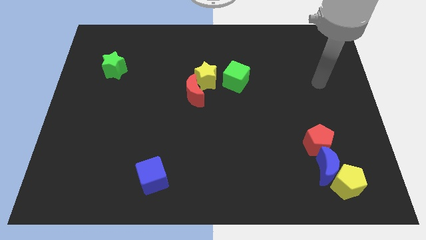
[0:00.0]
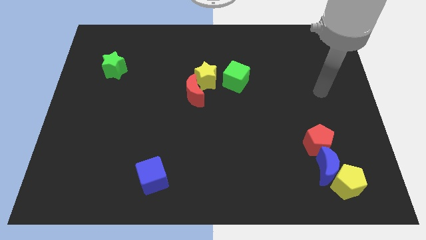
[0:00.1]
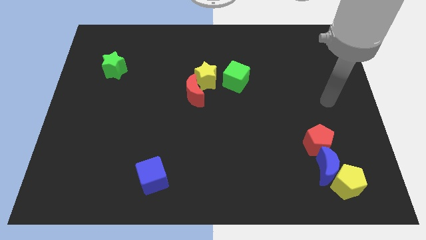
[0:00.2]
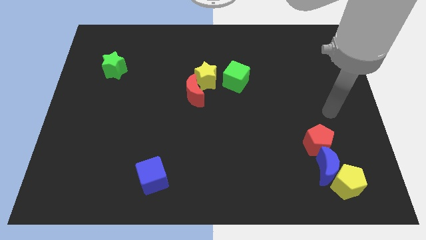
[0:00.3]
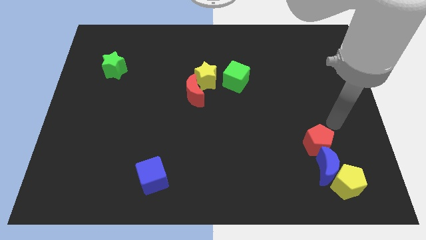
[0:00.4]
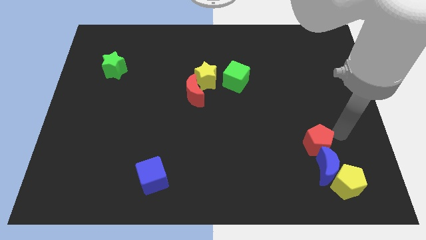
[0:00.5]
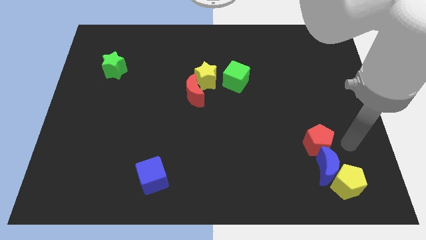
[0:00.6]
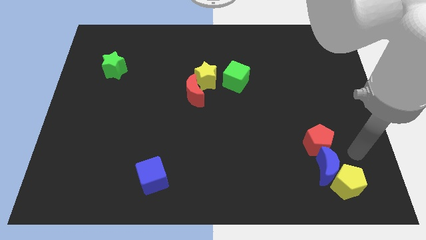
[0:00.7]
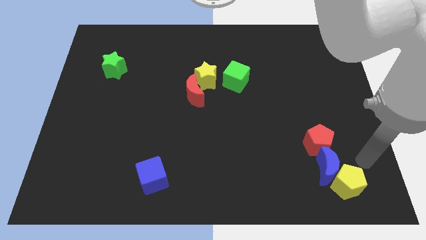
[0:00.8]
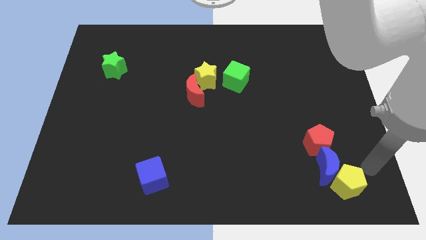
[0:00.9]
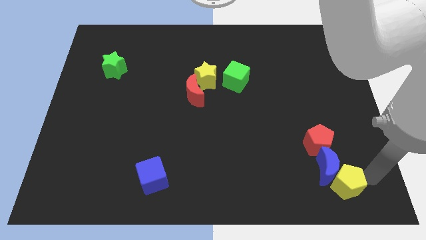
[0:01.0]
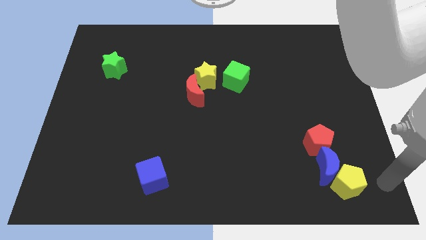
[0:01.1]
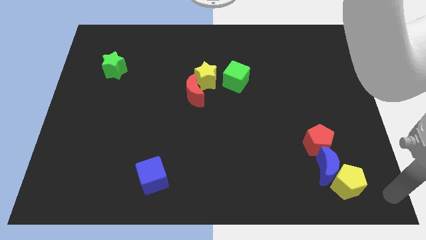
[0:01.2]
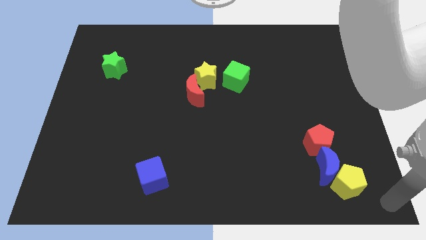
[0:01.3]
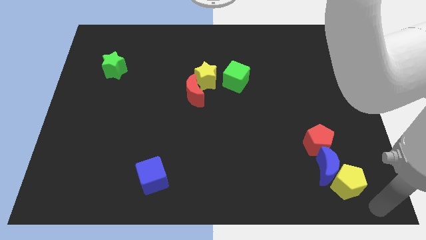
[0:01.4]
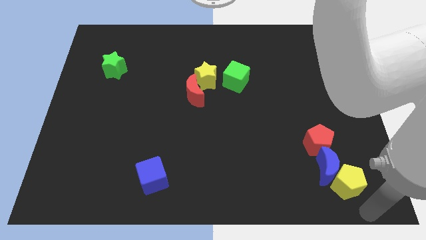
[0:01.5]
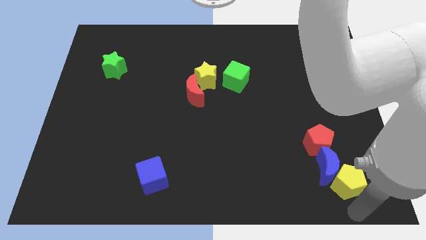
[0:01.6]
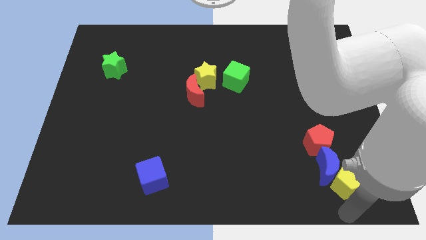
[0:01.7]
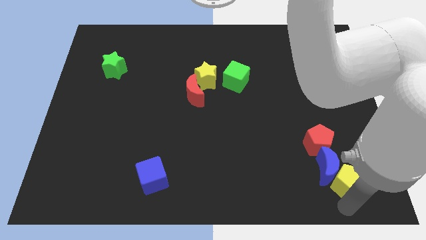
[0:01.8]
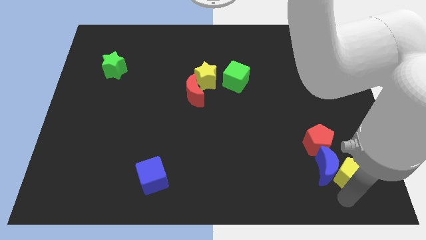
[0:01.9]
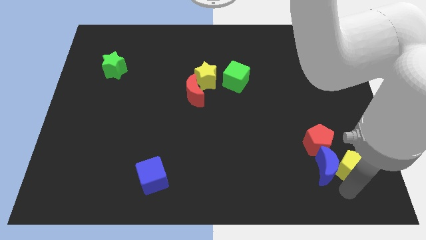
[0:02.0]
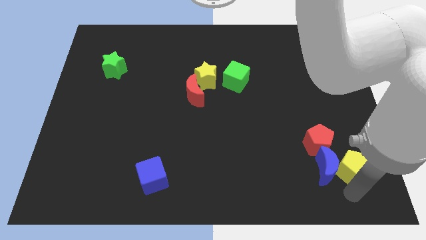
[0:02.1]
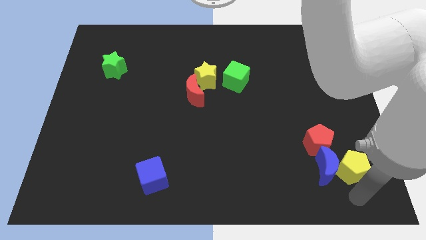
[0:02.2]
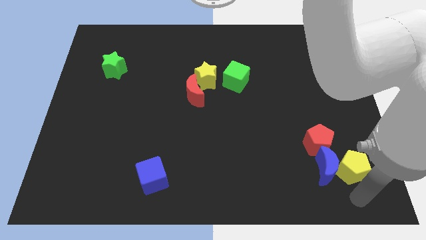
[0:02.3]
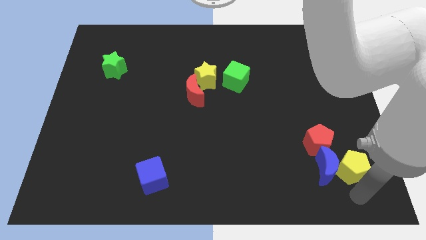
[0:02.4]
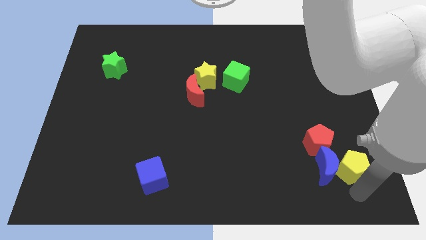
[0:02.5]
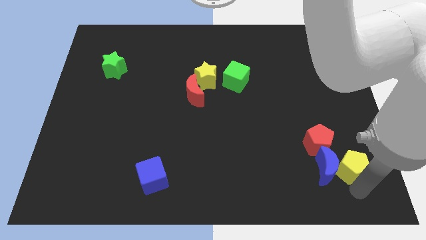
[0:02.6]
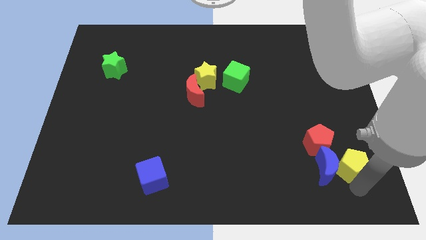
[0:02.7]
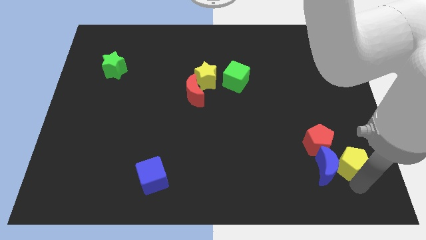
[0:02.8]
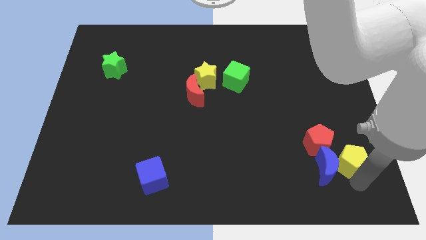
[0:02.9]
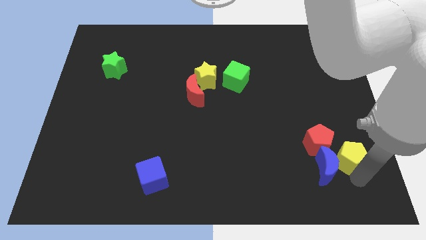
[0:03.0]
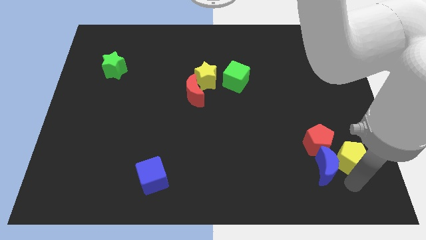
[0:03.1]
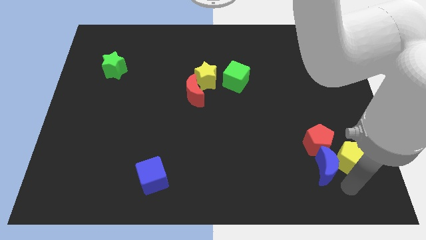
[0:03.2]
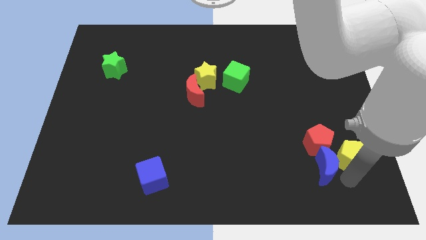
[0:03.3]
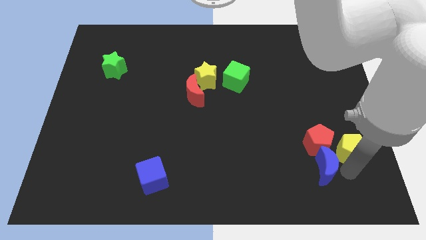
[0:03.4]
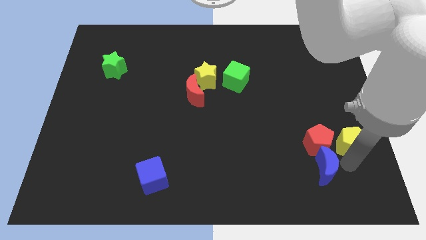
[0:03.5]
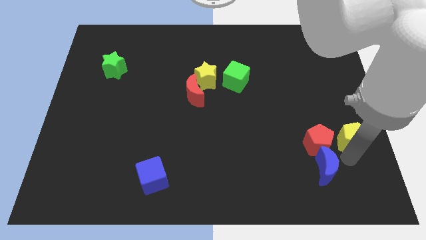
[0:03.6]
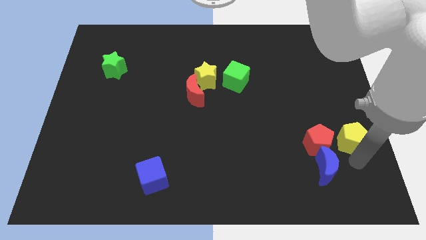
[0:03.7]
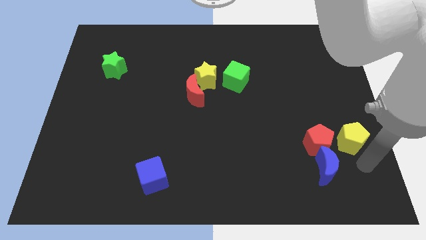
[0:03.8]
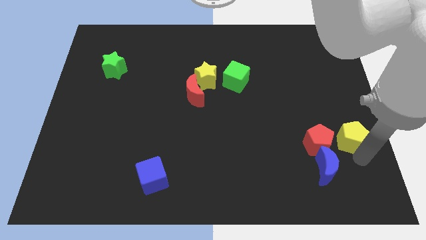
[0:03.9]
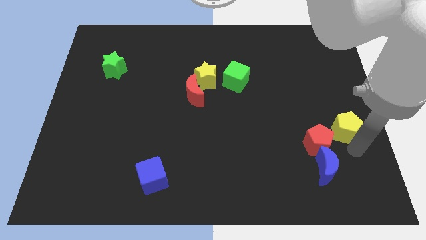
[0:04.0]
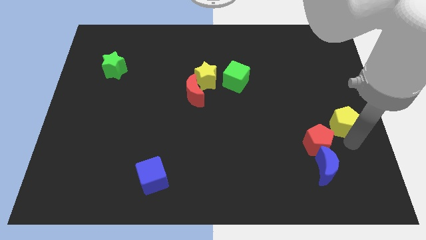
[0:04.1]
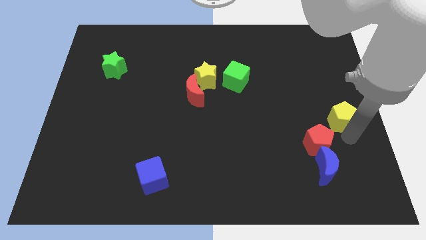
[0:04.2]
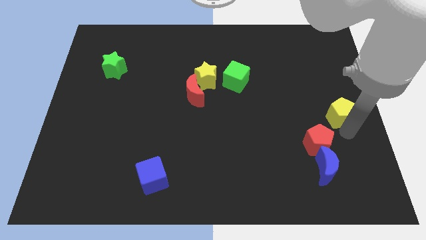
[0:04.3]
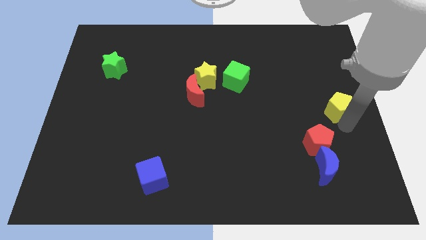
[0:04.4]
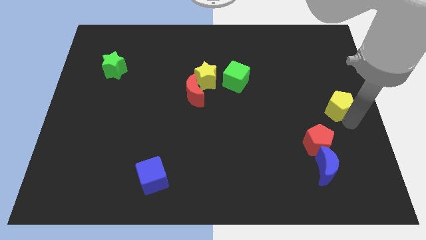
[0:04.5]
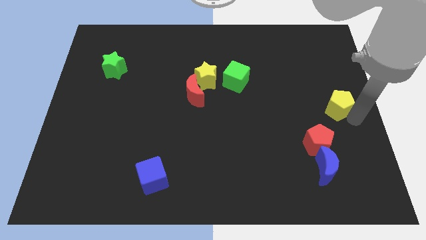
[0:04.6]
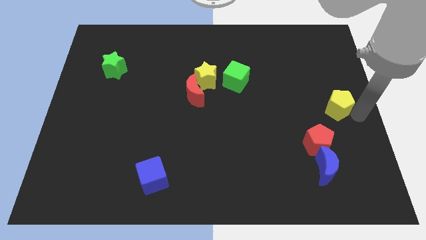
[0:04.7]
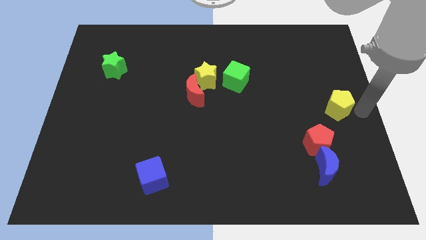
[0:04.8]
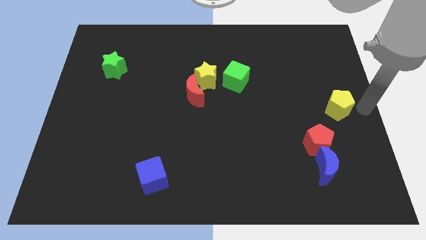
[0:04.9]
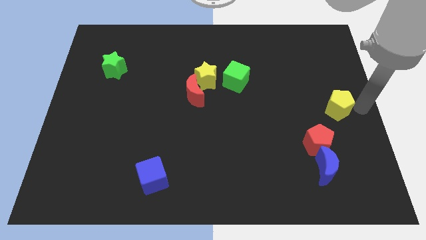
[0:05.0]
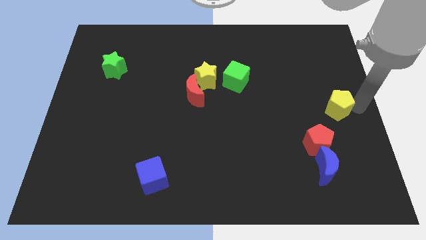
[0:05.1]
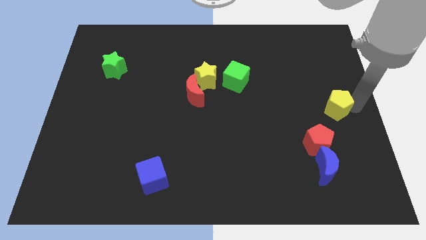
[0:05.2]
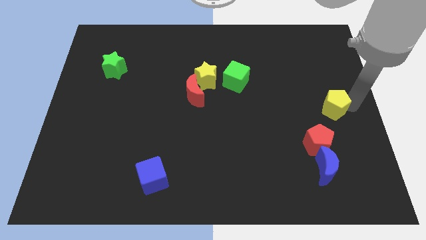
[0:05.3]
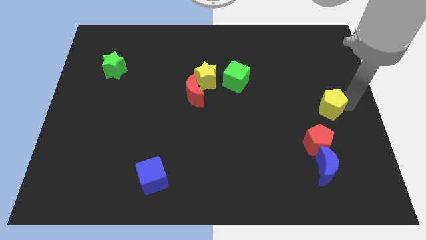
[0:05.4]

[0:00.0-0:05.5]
move the yellow pentagon to the top side of the red pentagon

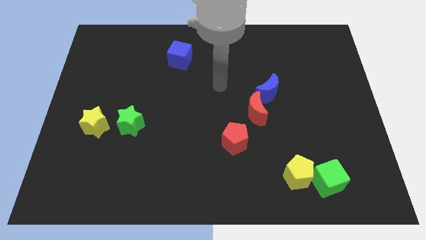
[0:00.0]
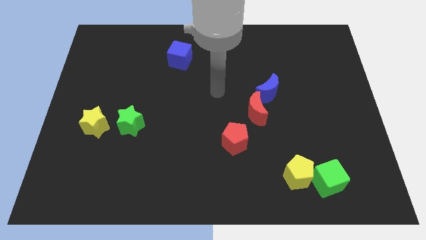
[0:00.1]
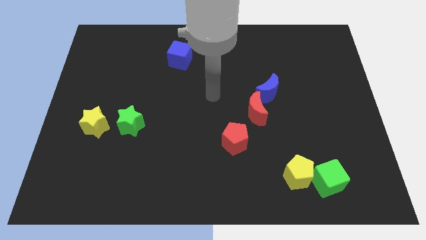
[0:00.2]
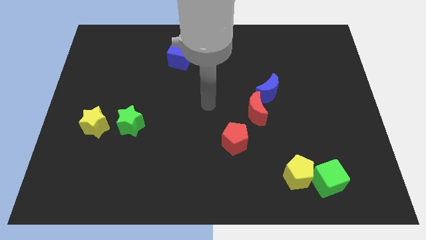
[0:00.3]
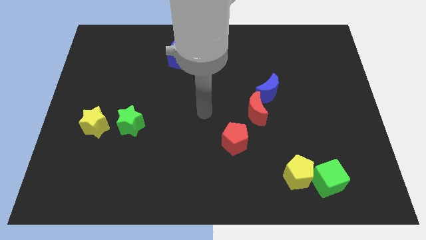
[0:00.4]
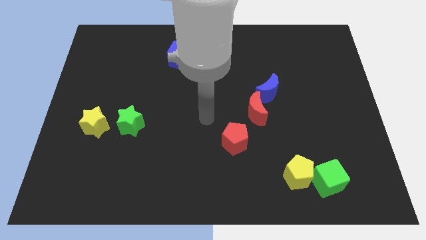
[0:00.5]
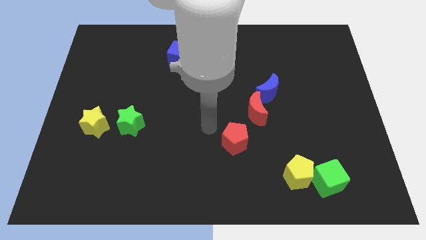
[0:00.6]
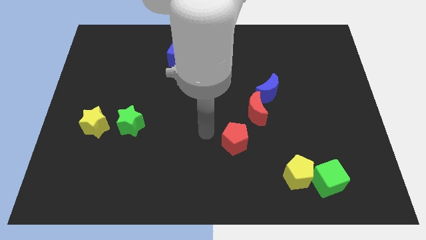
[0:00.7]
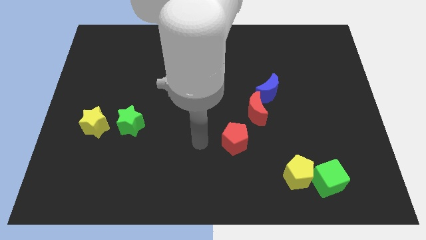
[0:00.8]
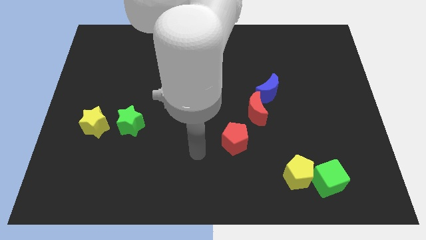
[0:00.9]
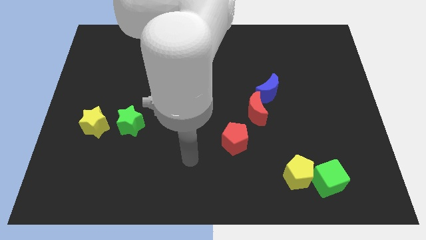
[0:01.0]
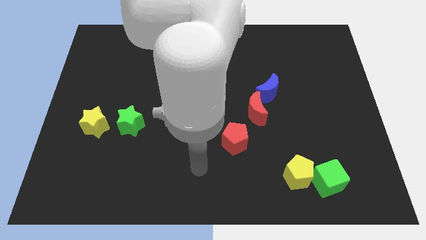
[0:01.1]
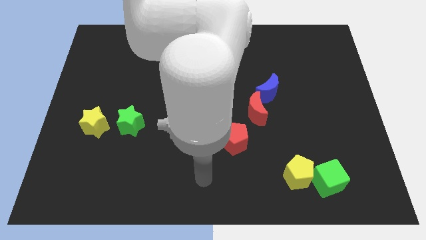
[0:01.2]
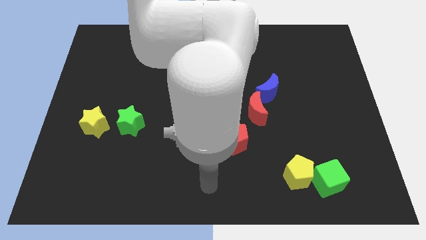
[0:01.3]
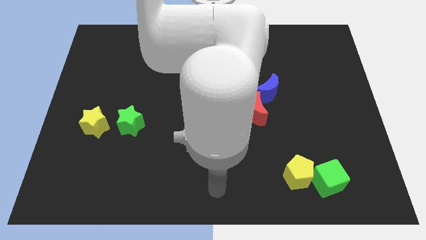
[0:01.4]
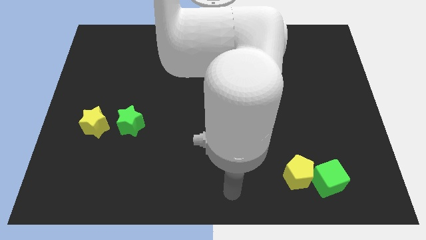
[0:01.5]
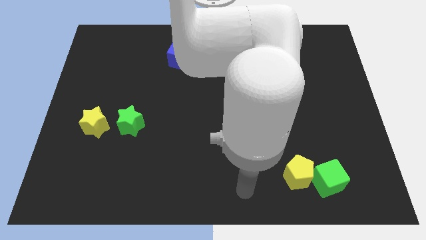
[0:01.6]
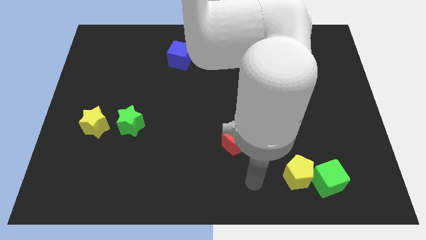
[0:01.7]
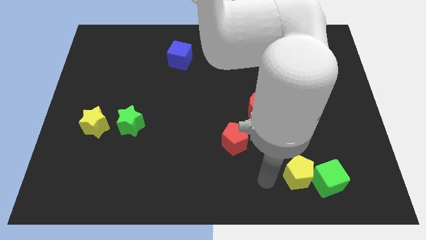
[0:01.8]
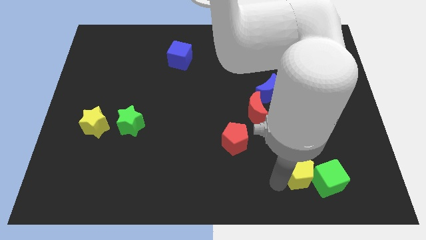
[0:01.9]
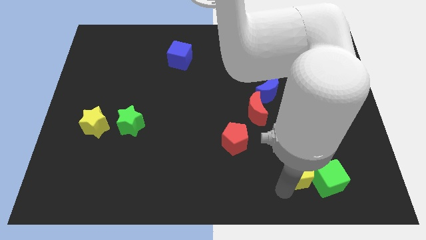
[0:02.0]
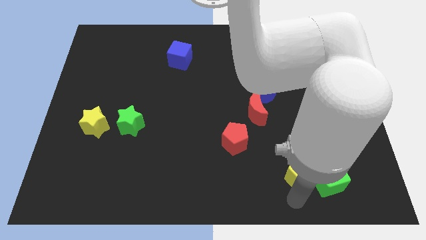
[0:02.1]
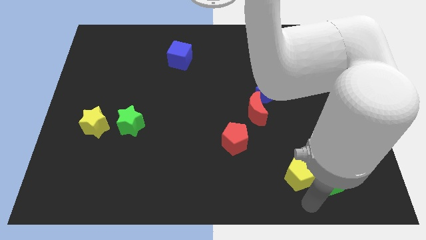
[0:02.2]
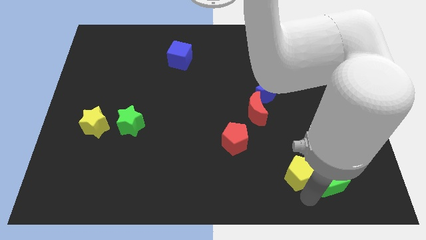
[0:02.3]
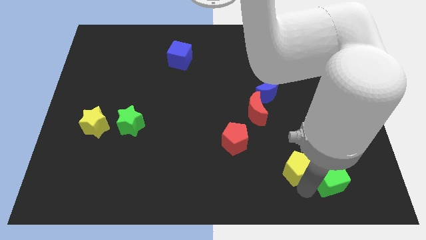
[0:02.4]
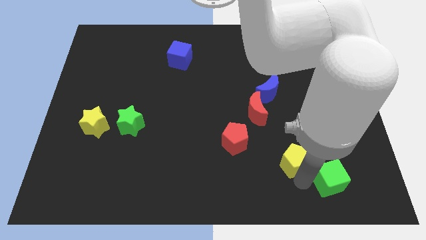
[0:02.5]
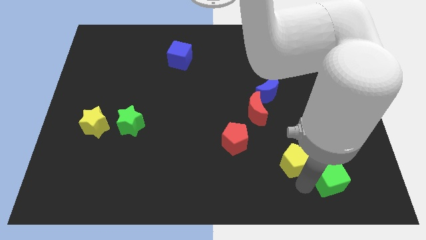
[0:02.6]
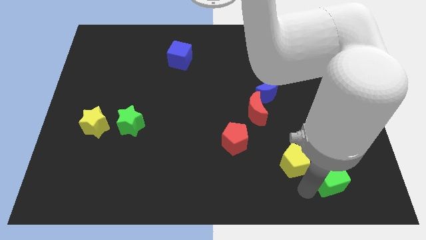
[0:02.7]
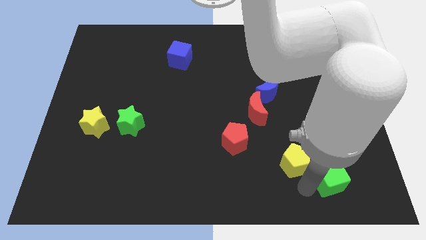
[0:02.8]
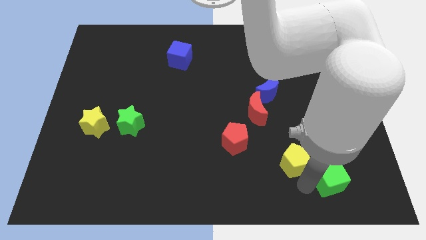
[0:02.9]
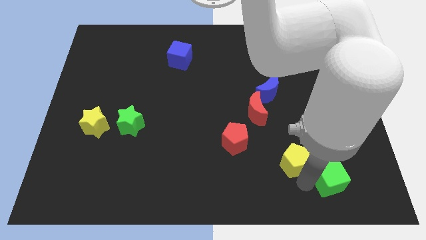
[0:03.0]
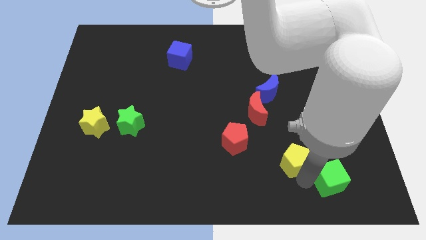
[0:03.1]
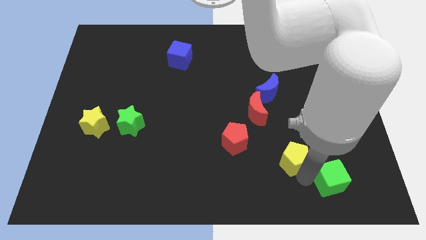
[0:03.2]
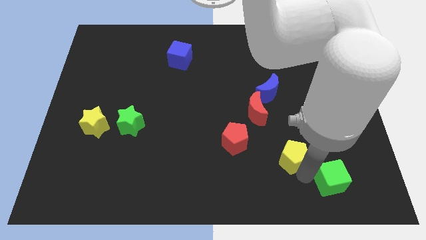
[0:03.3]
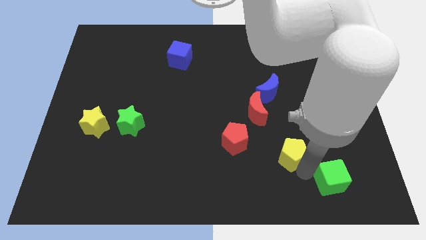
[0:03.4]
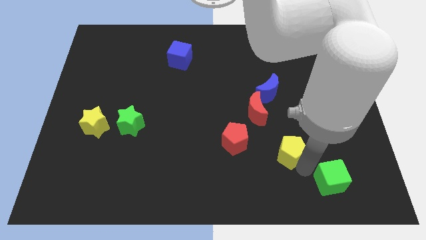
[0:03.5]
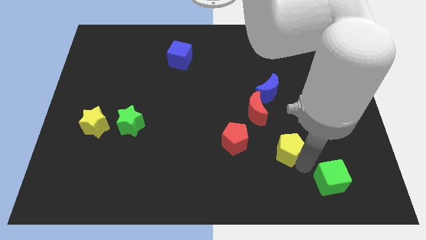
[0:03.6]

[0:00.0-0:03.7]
move the yellow pentagon diagonally down and to the right of the red moon
